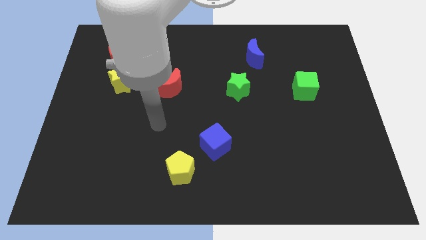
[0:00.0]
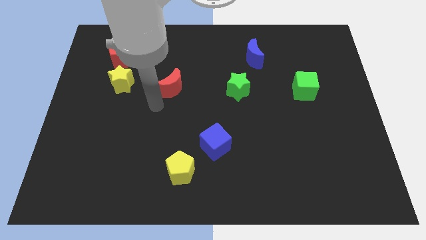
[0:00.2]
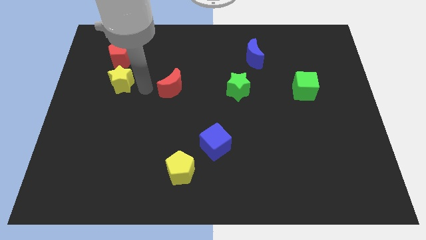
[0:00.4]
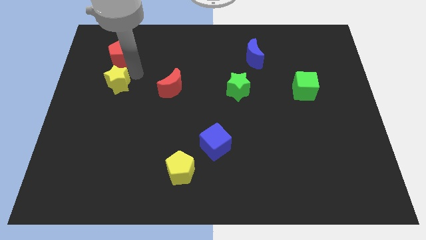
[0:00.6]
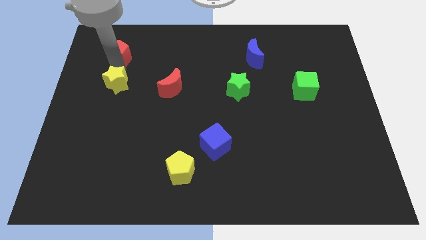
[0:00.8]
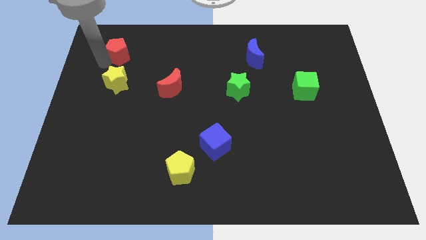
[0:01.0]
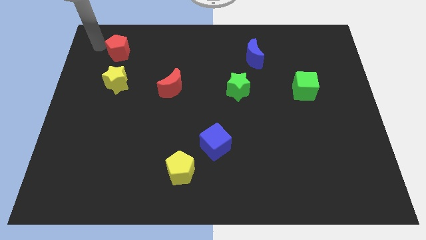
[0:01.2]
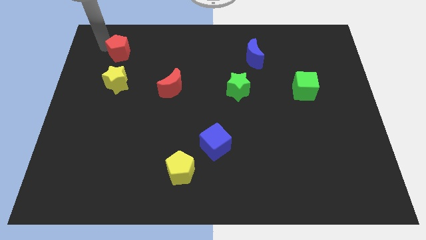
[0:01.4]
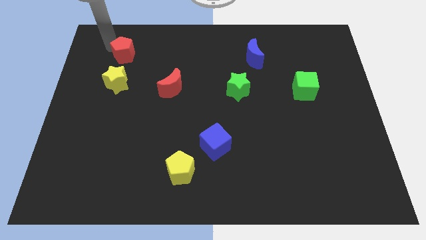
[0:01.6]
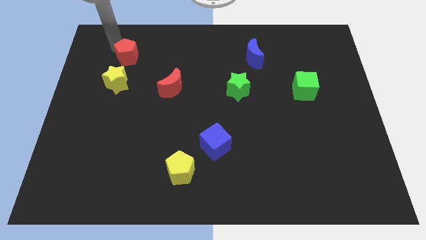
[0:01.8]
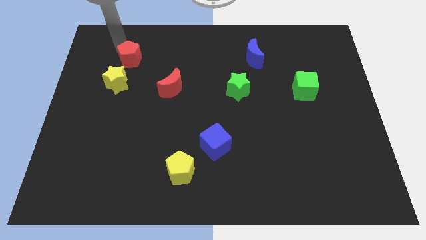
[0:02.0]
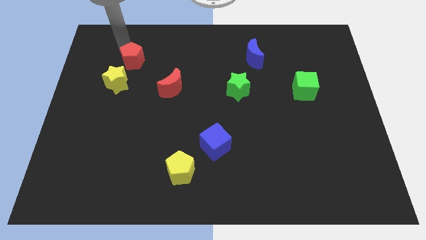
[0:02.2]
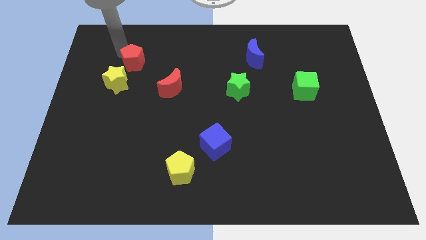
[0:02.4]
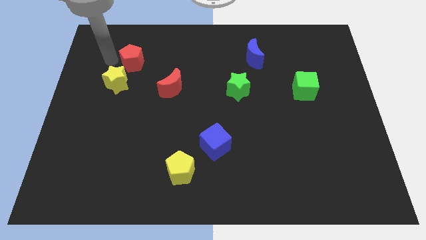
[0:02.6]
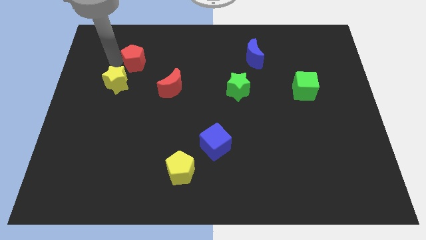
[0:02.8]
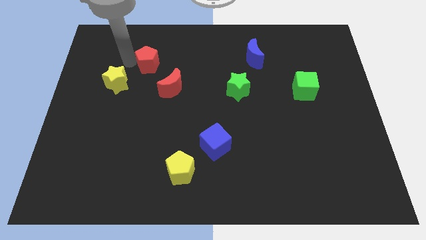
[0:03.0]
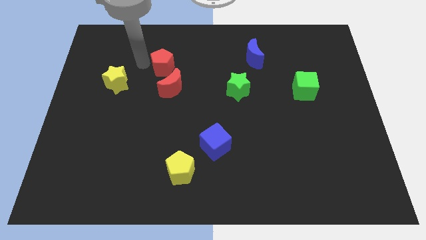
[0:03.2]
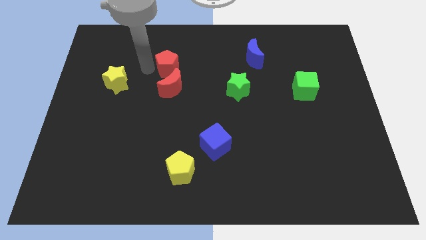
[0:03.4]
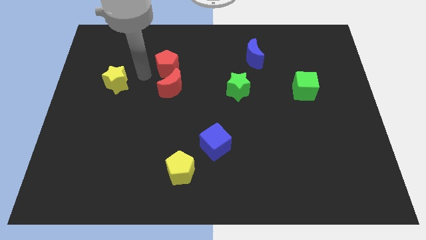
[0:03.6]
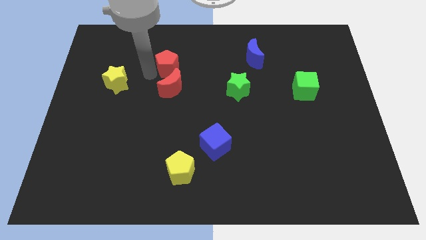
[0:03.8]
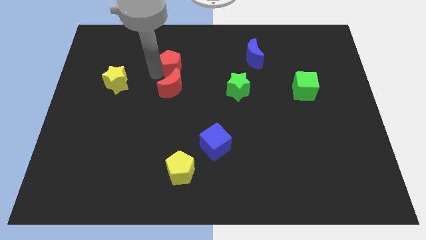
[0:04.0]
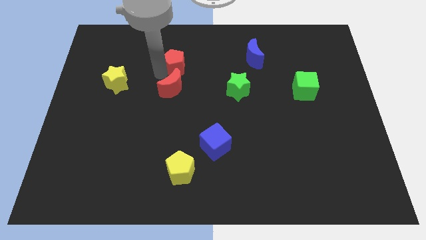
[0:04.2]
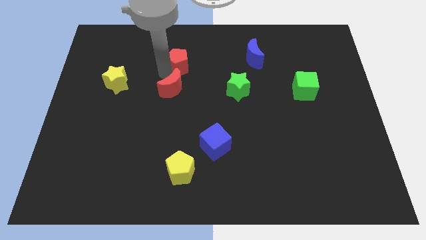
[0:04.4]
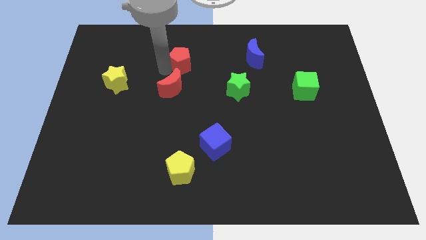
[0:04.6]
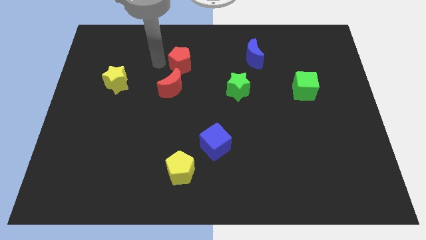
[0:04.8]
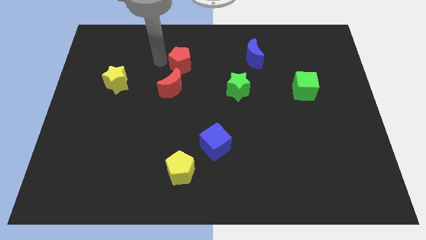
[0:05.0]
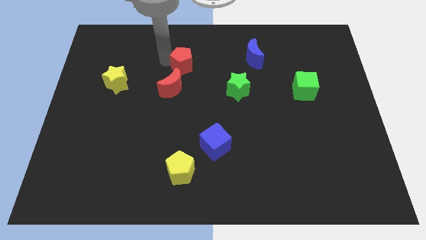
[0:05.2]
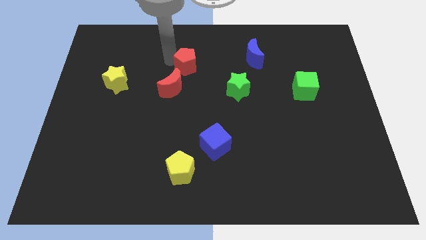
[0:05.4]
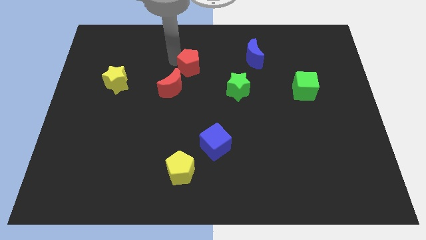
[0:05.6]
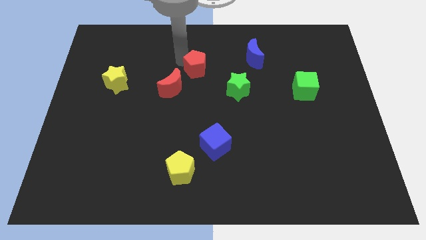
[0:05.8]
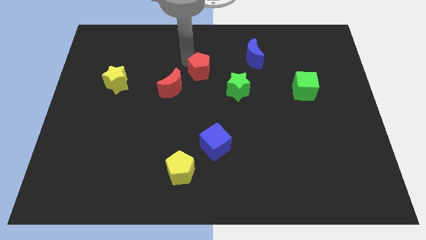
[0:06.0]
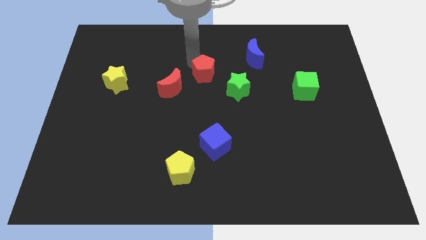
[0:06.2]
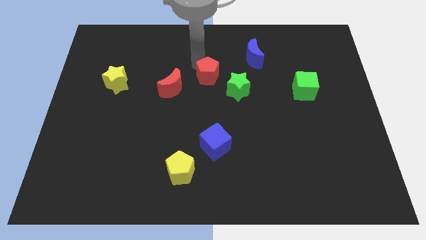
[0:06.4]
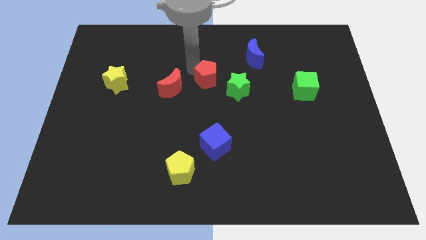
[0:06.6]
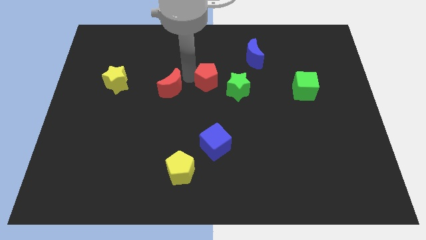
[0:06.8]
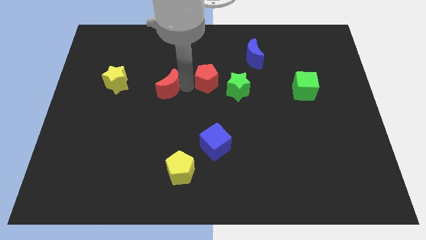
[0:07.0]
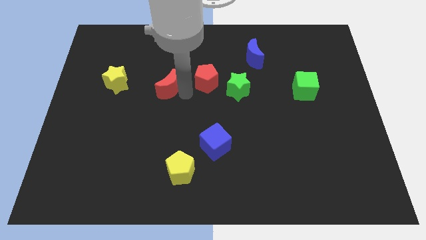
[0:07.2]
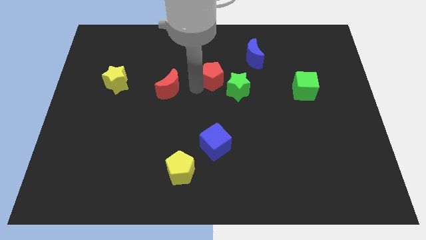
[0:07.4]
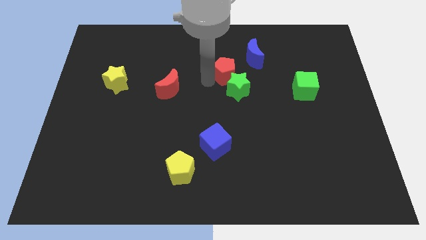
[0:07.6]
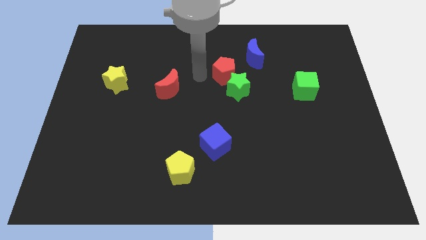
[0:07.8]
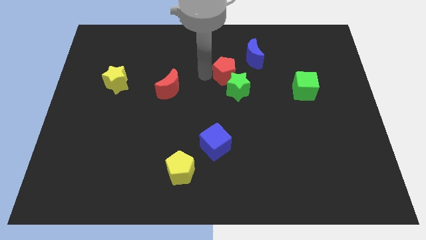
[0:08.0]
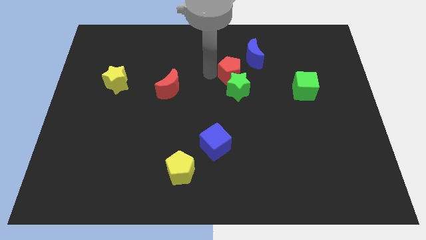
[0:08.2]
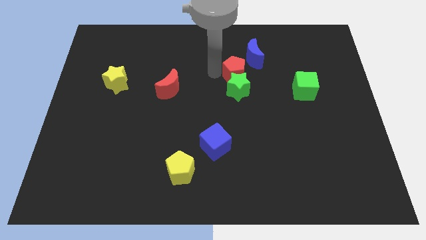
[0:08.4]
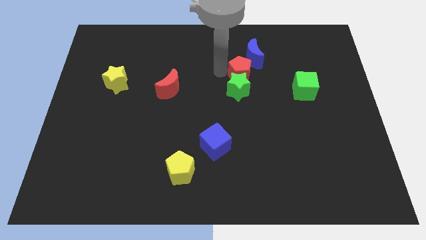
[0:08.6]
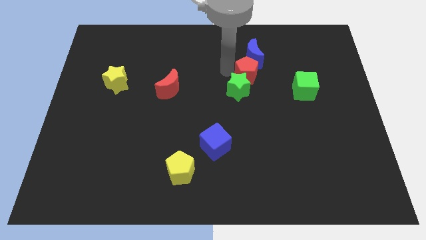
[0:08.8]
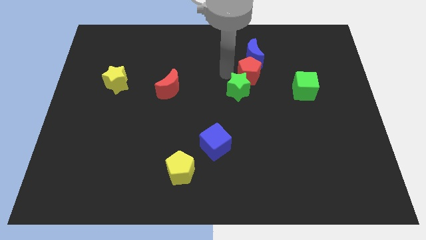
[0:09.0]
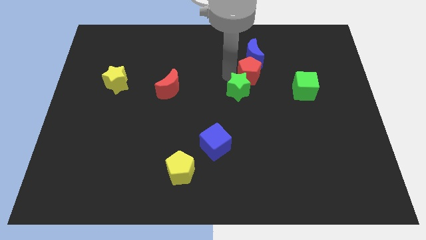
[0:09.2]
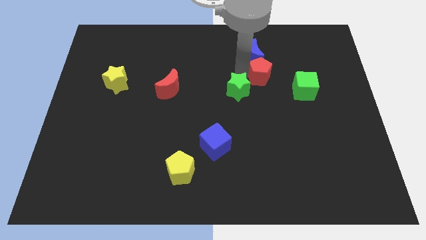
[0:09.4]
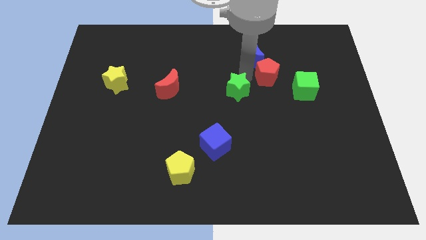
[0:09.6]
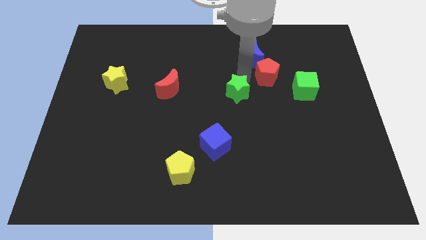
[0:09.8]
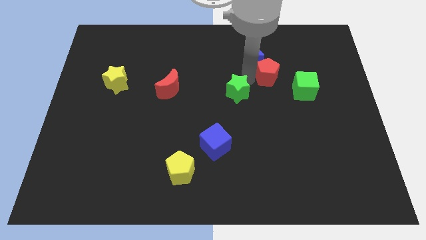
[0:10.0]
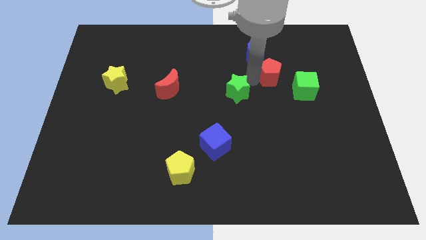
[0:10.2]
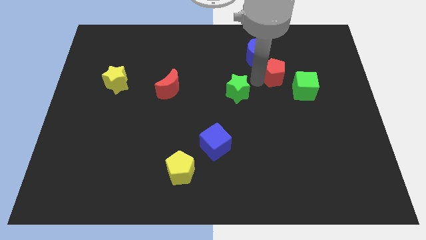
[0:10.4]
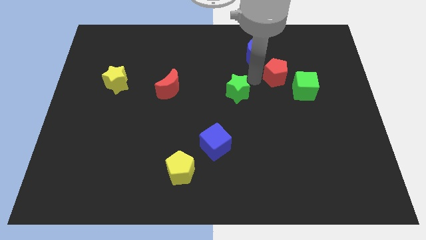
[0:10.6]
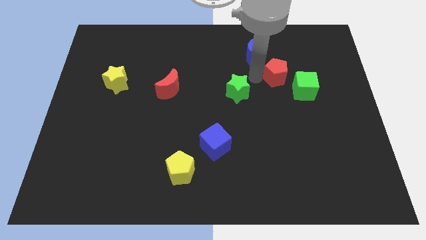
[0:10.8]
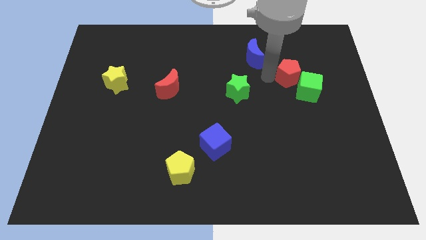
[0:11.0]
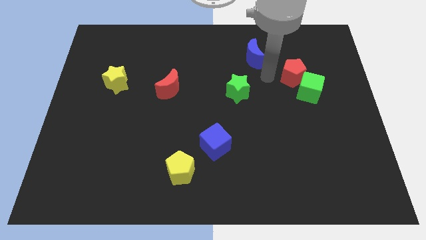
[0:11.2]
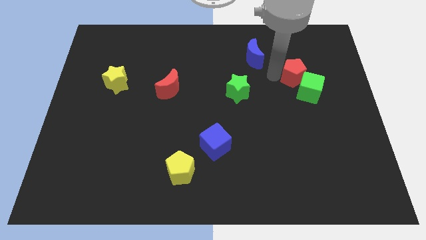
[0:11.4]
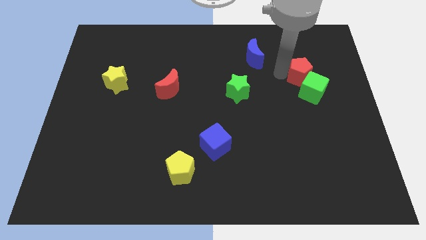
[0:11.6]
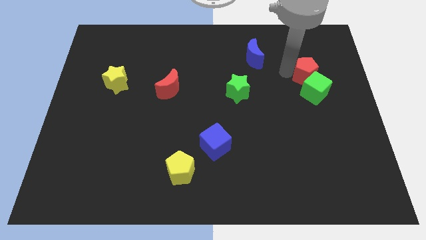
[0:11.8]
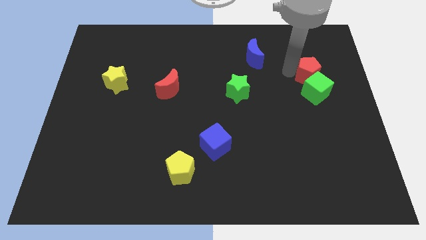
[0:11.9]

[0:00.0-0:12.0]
slide the red pentagon to the top right of the green cube

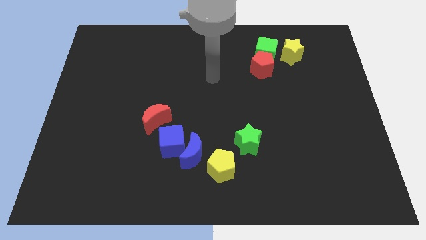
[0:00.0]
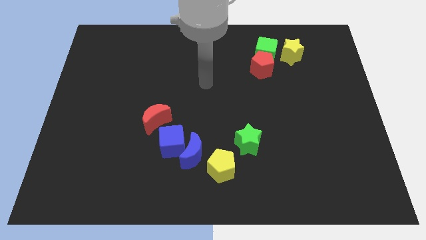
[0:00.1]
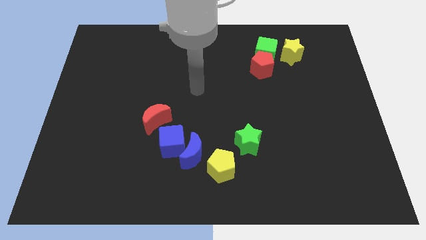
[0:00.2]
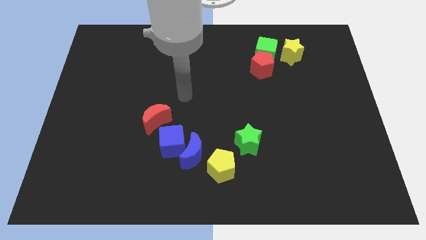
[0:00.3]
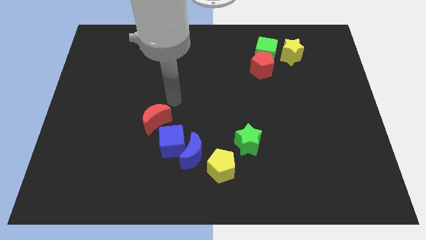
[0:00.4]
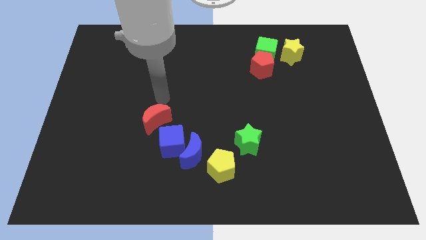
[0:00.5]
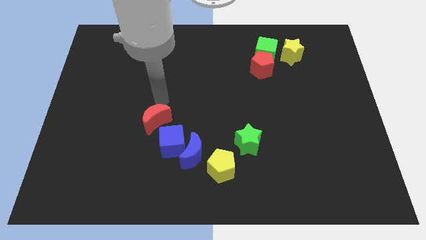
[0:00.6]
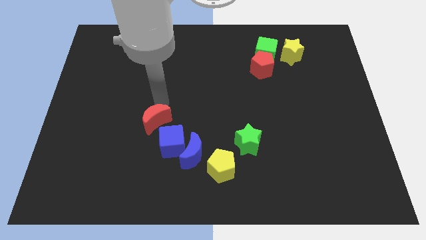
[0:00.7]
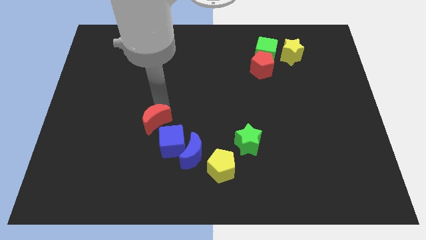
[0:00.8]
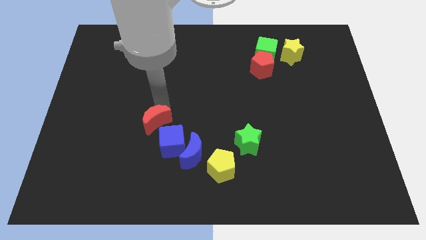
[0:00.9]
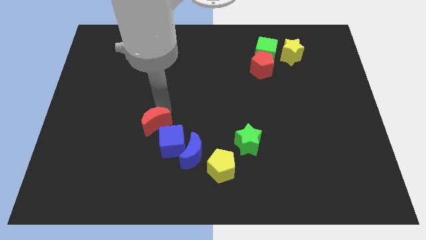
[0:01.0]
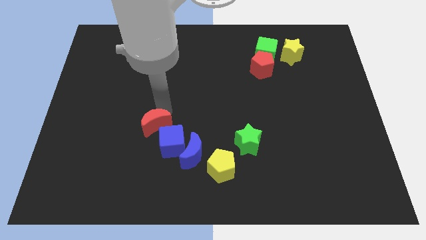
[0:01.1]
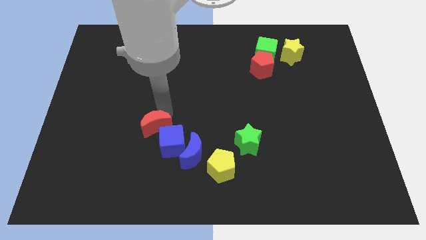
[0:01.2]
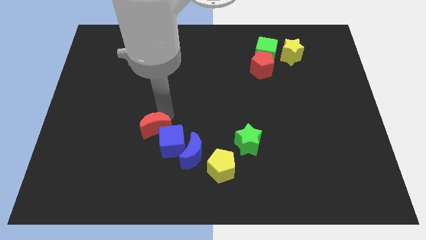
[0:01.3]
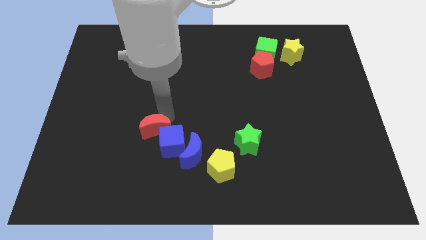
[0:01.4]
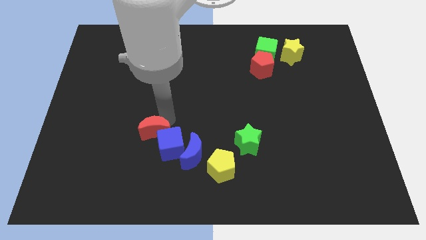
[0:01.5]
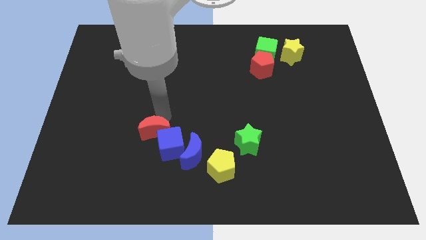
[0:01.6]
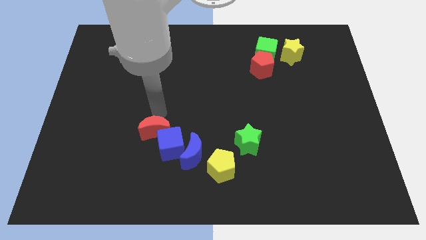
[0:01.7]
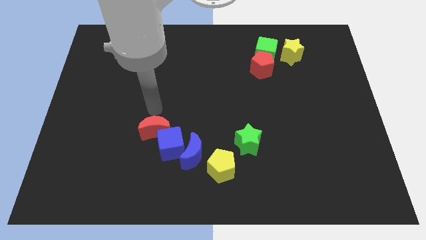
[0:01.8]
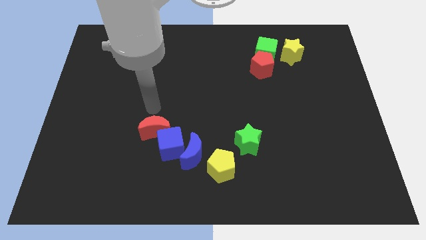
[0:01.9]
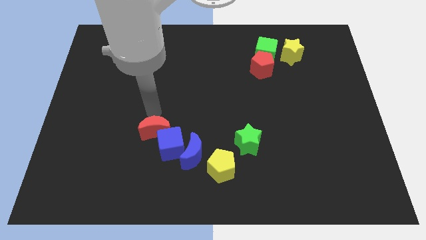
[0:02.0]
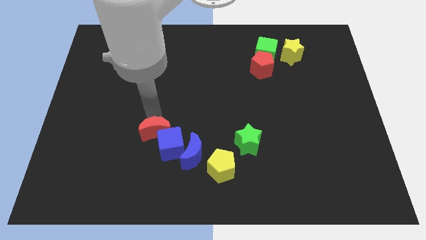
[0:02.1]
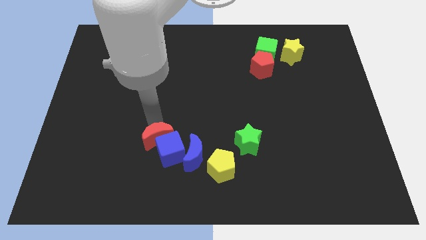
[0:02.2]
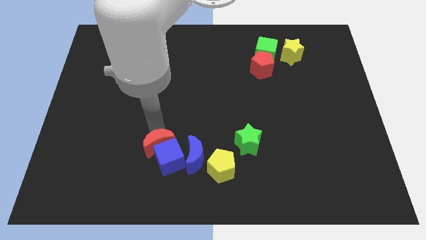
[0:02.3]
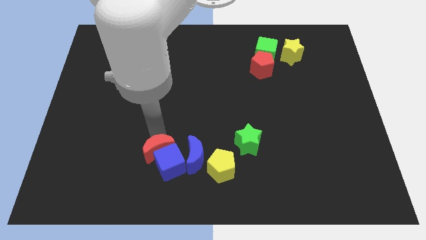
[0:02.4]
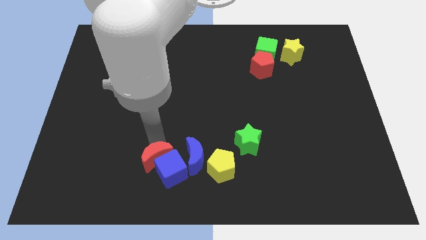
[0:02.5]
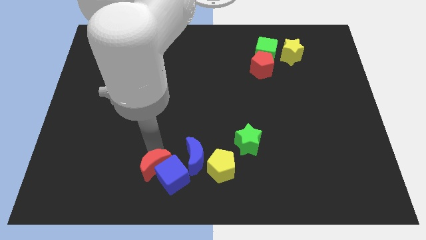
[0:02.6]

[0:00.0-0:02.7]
put the red moon diagonally down and to the left of the blue moon
